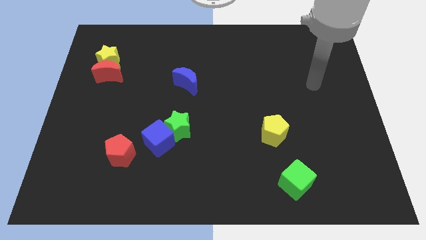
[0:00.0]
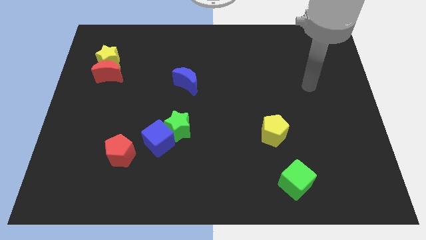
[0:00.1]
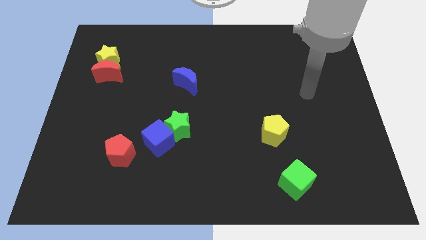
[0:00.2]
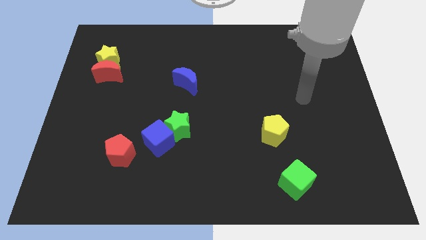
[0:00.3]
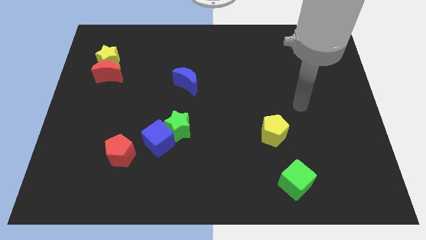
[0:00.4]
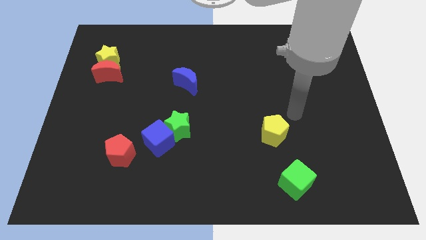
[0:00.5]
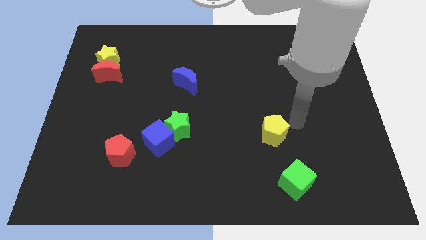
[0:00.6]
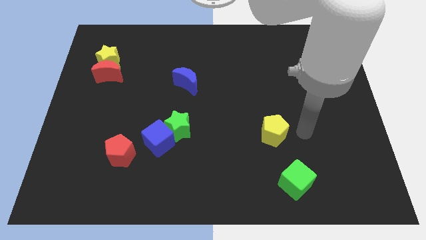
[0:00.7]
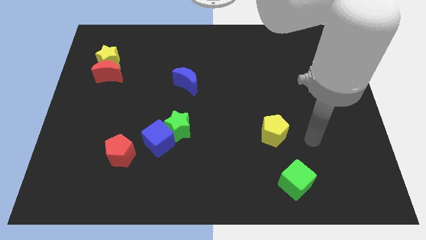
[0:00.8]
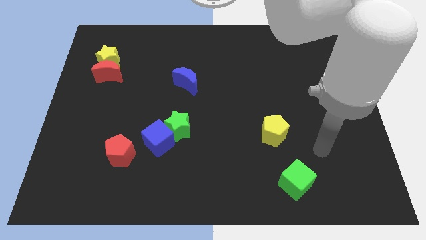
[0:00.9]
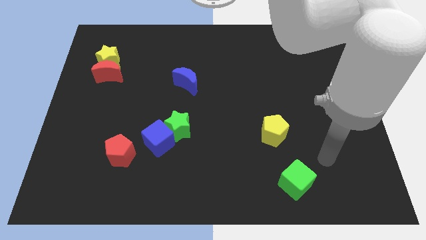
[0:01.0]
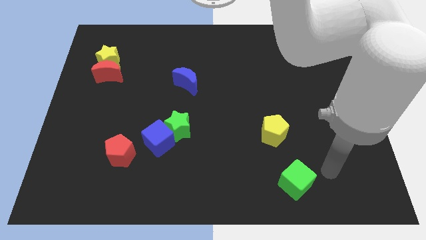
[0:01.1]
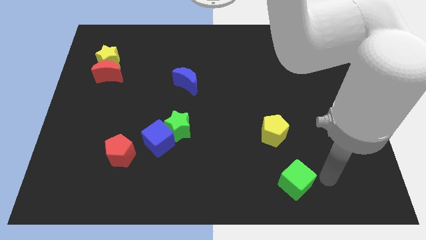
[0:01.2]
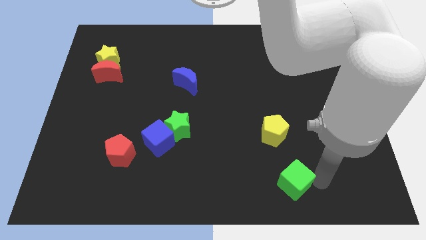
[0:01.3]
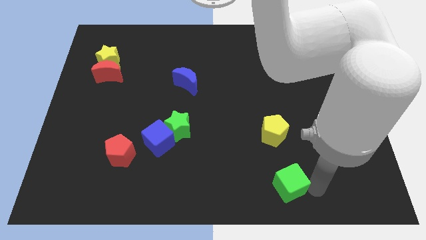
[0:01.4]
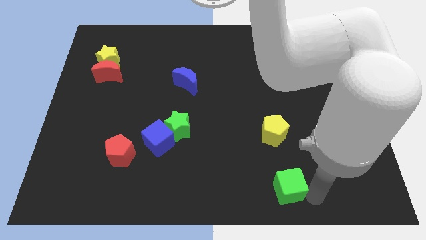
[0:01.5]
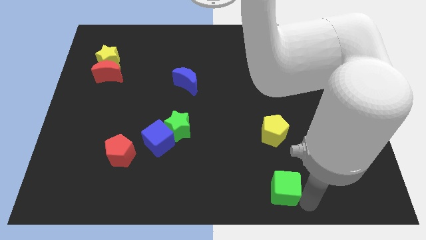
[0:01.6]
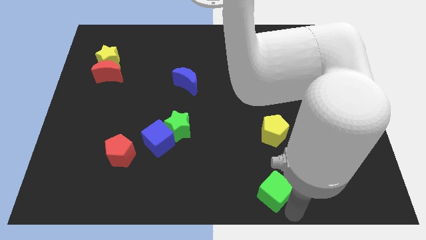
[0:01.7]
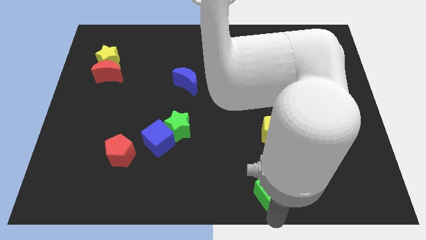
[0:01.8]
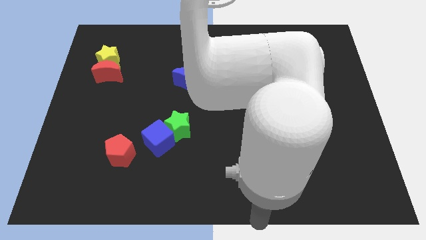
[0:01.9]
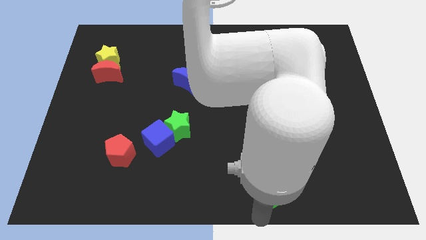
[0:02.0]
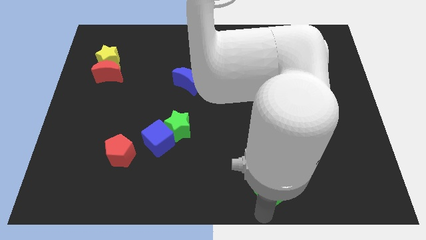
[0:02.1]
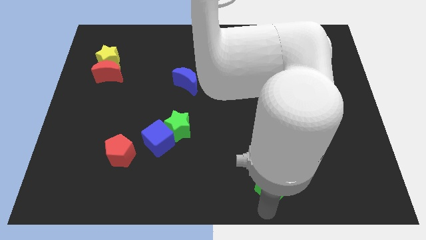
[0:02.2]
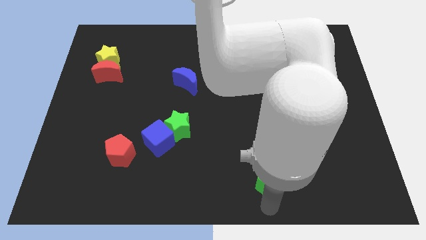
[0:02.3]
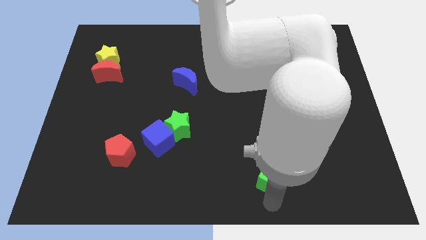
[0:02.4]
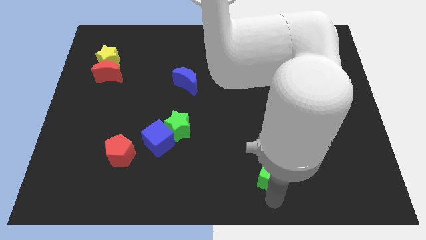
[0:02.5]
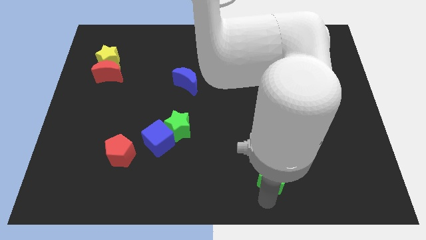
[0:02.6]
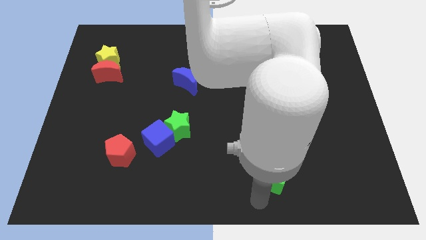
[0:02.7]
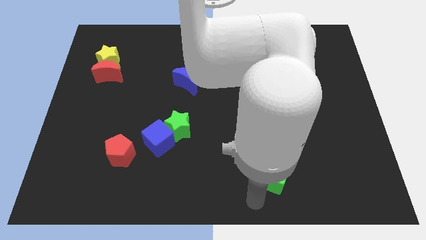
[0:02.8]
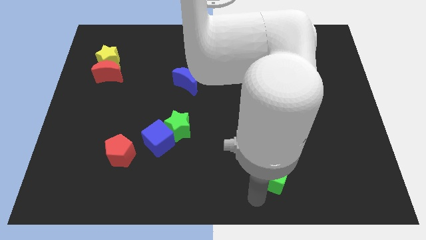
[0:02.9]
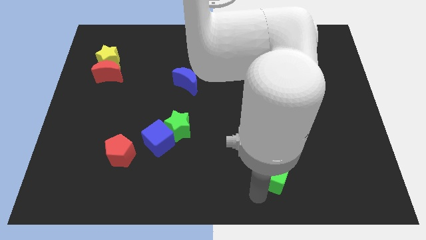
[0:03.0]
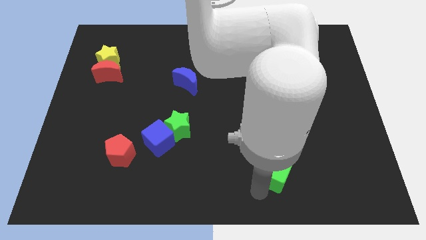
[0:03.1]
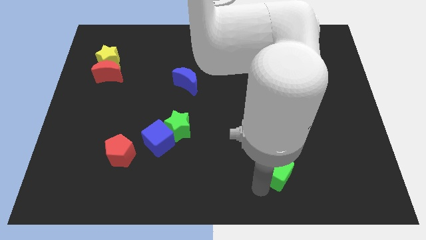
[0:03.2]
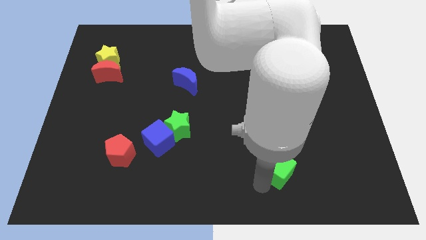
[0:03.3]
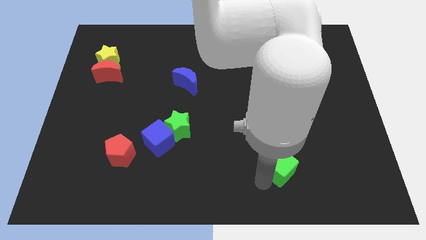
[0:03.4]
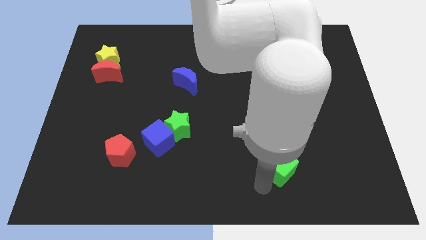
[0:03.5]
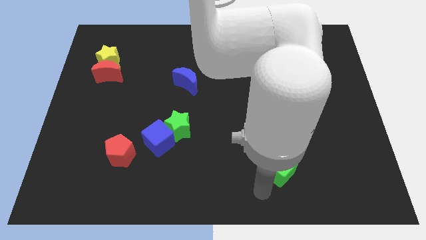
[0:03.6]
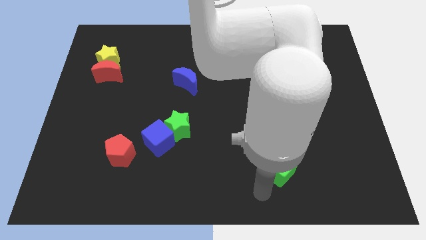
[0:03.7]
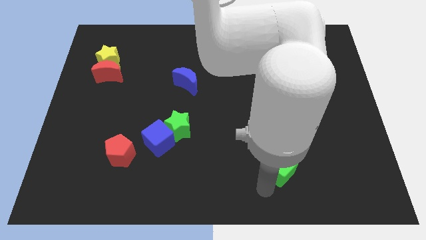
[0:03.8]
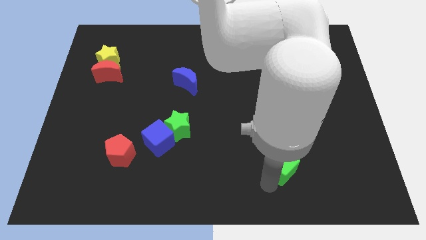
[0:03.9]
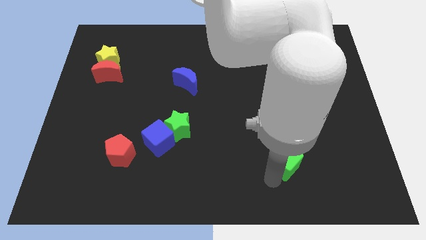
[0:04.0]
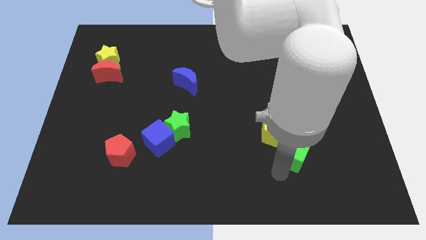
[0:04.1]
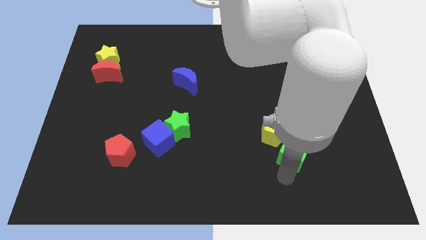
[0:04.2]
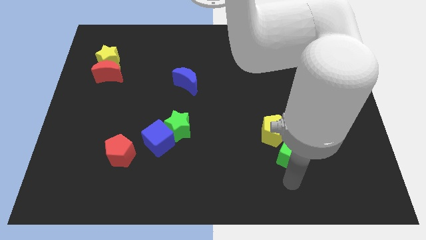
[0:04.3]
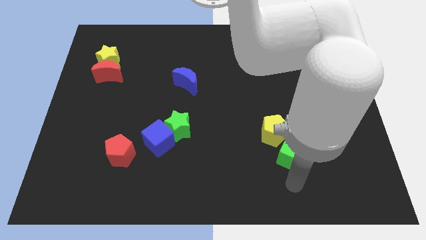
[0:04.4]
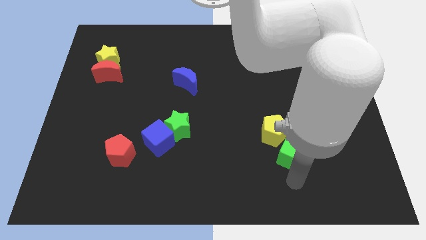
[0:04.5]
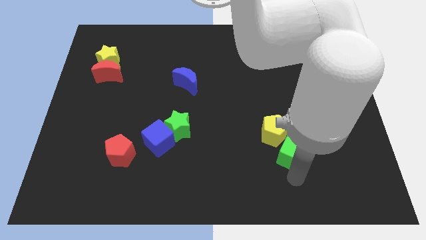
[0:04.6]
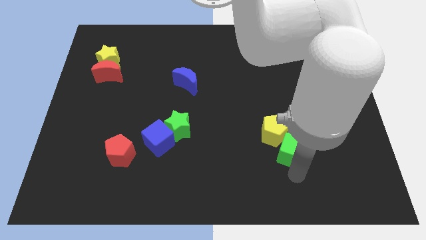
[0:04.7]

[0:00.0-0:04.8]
slightly slide the green cube upwards

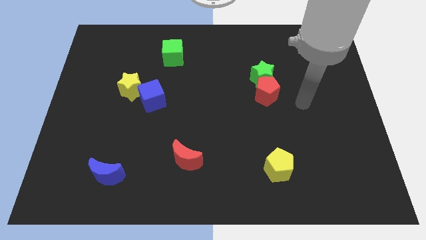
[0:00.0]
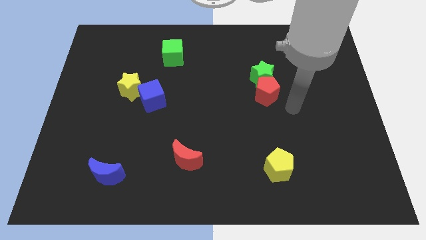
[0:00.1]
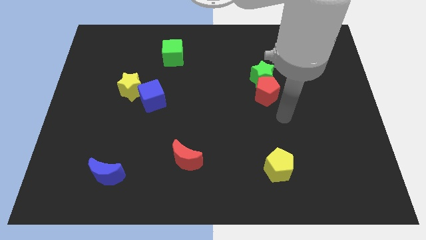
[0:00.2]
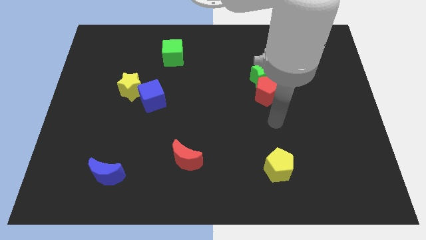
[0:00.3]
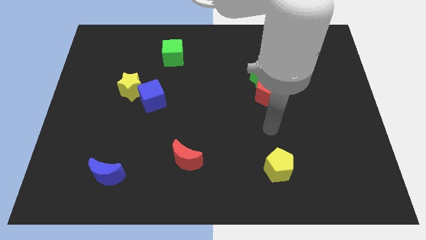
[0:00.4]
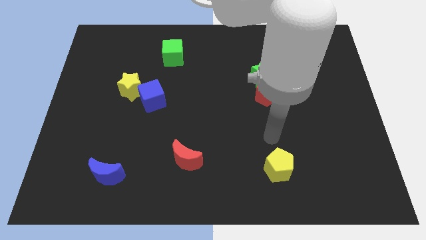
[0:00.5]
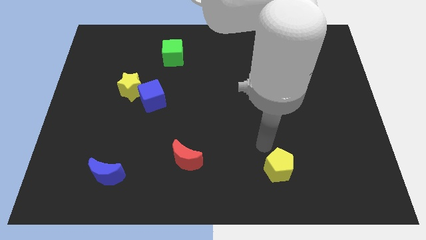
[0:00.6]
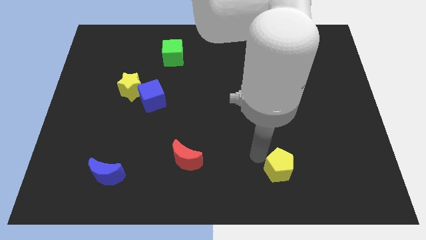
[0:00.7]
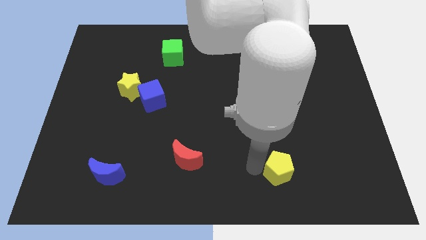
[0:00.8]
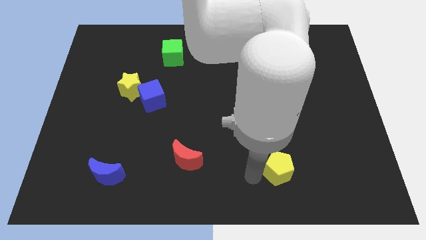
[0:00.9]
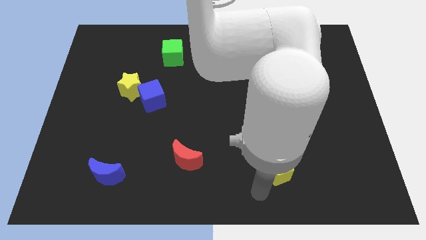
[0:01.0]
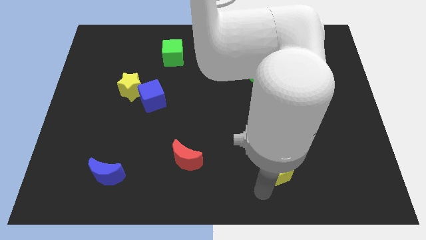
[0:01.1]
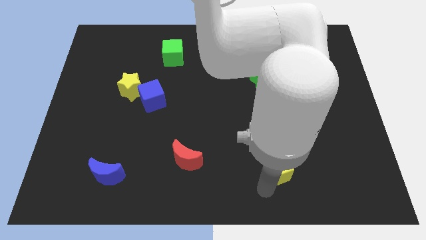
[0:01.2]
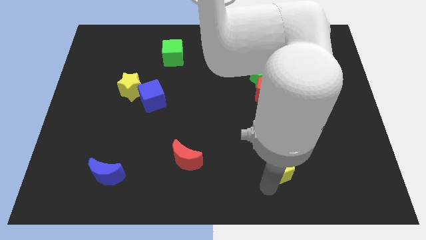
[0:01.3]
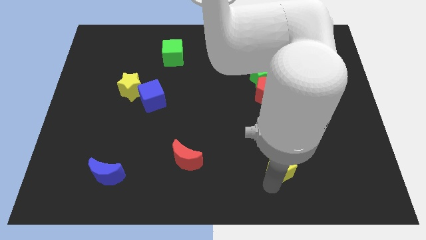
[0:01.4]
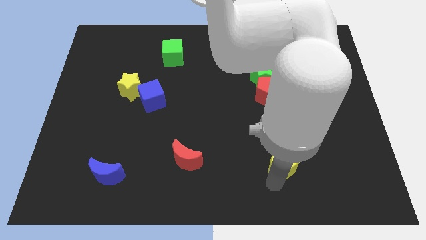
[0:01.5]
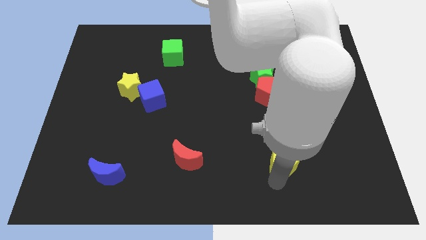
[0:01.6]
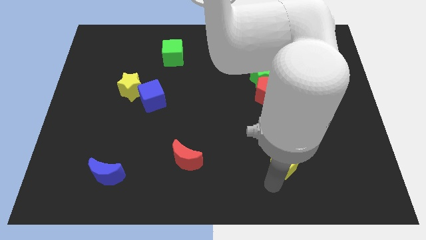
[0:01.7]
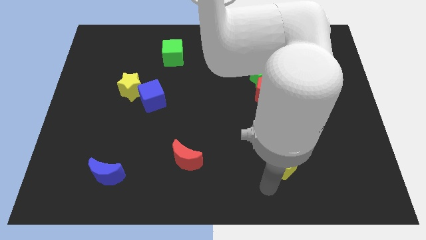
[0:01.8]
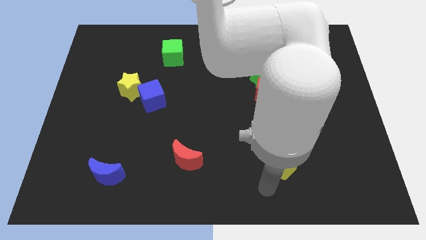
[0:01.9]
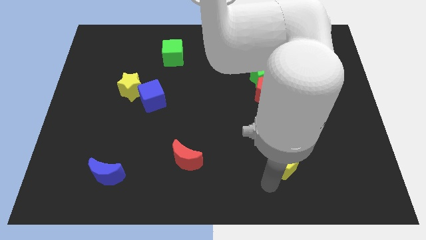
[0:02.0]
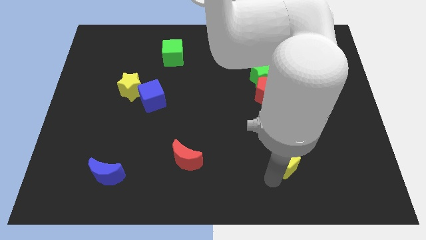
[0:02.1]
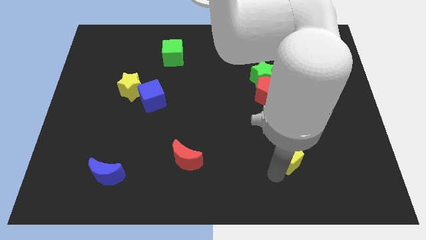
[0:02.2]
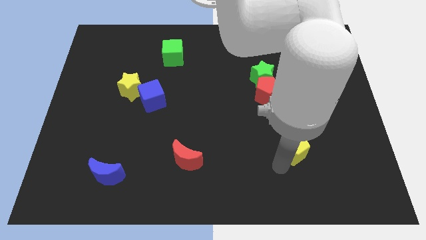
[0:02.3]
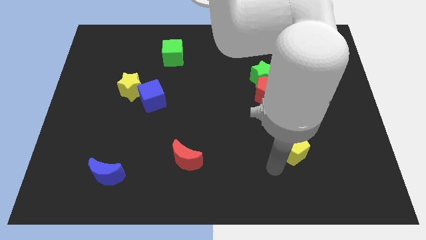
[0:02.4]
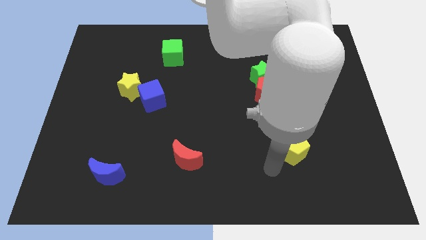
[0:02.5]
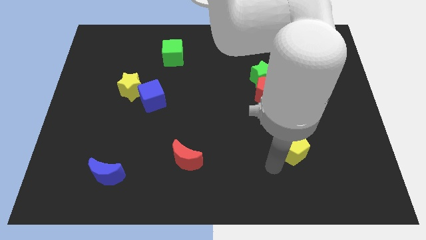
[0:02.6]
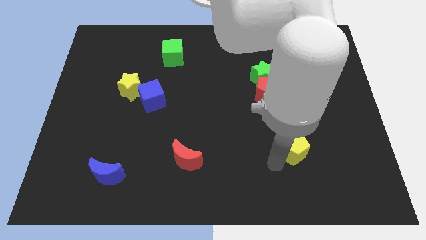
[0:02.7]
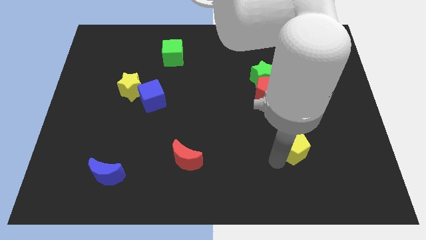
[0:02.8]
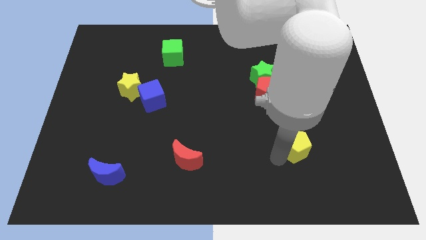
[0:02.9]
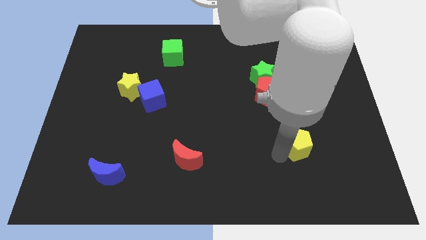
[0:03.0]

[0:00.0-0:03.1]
slide the yellow pentagon diagonally up and right somewhat
